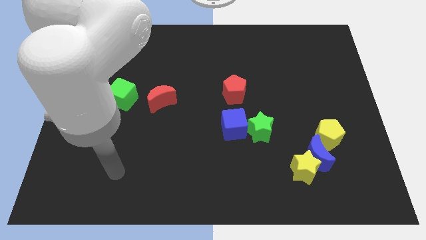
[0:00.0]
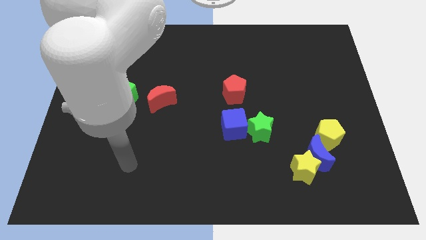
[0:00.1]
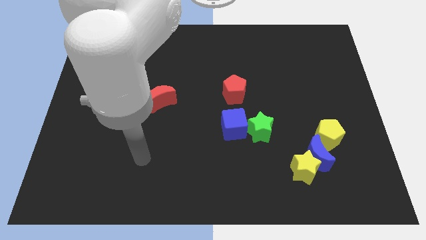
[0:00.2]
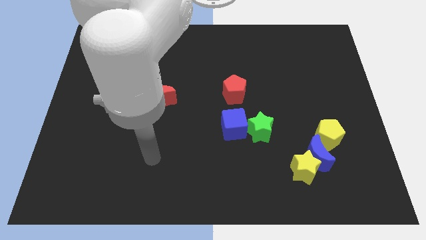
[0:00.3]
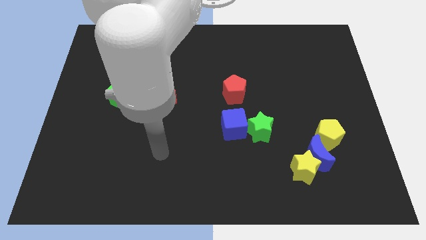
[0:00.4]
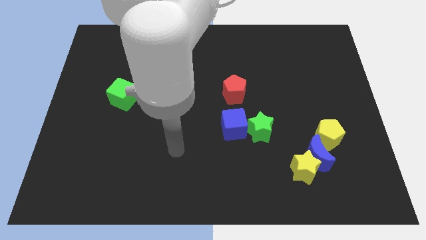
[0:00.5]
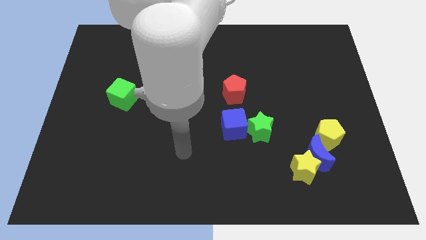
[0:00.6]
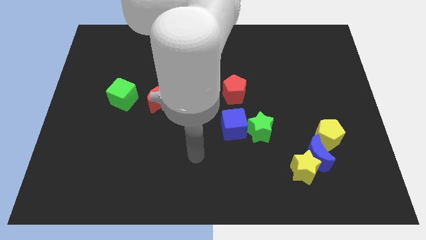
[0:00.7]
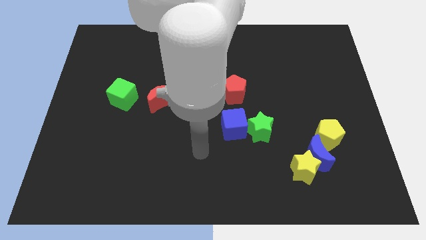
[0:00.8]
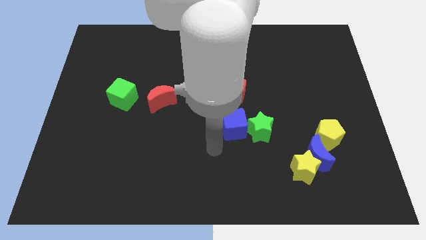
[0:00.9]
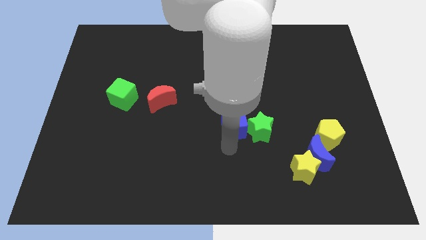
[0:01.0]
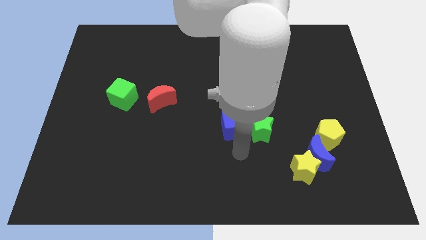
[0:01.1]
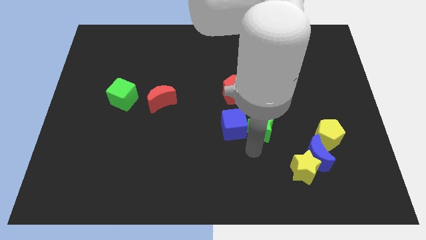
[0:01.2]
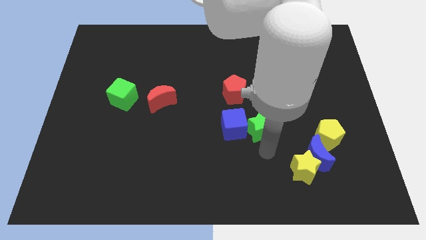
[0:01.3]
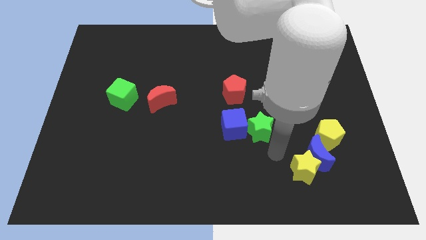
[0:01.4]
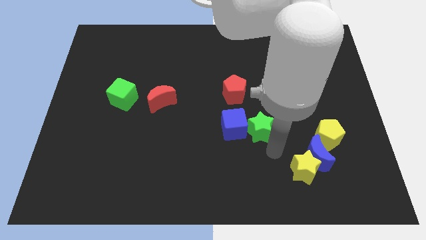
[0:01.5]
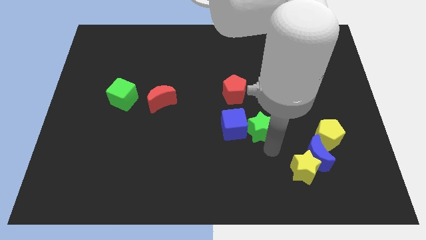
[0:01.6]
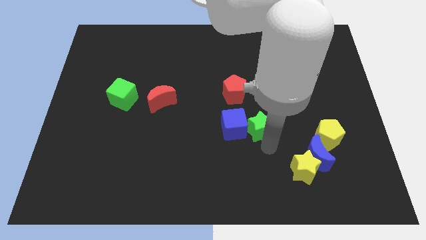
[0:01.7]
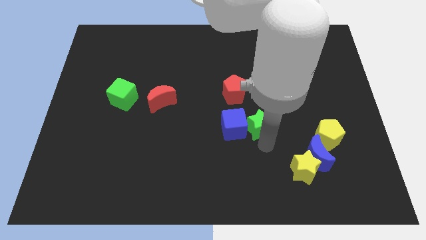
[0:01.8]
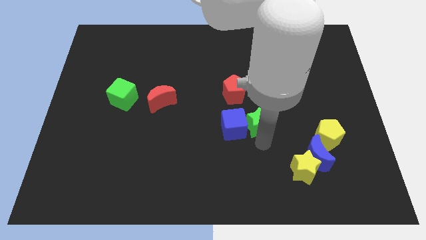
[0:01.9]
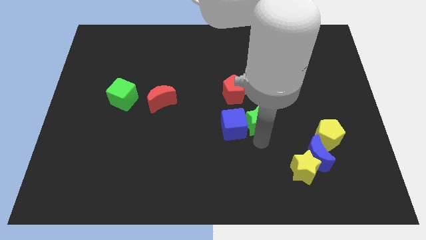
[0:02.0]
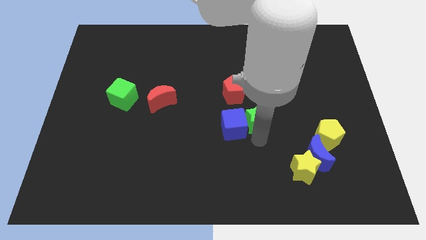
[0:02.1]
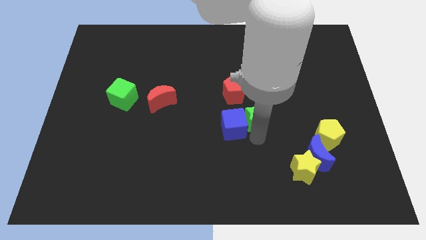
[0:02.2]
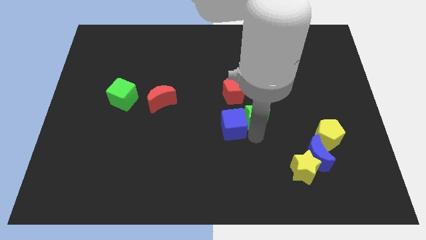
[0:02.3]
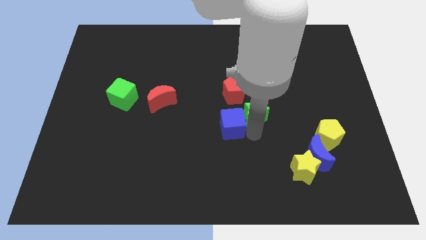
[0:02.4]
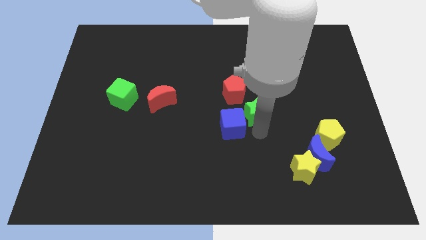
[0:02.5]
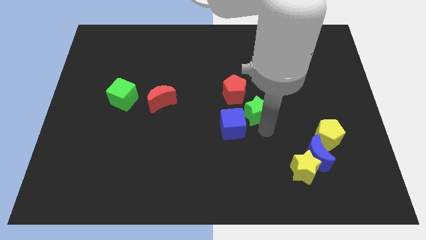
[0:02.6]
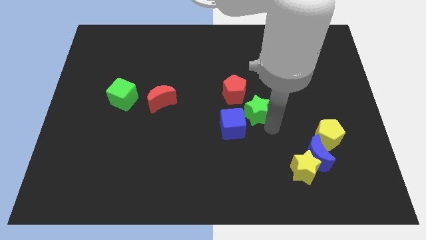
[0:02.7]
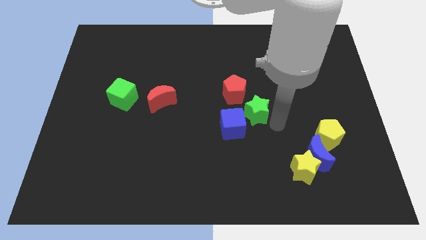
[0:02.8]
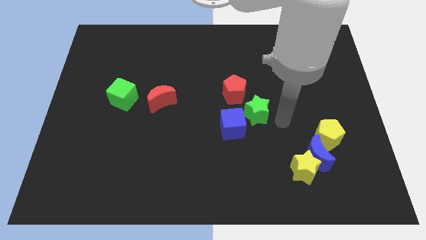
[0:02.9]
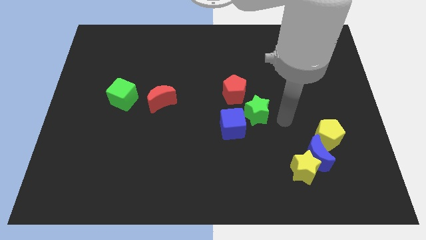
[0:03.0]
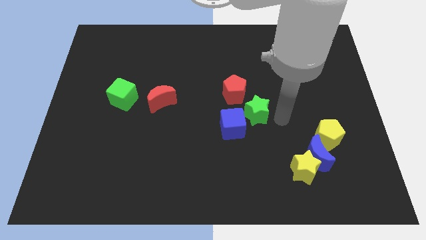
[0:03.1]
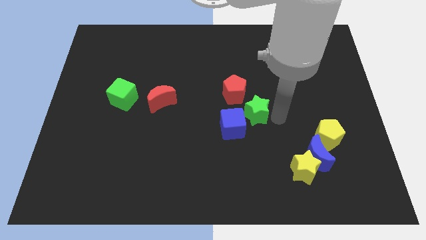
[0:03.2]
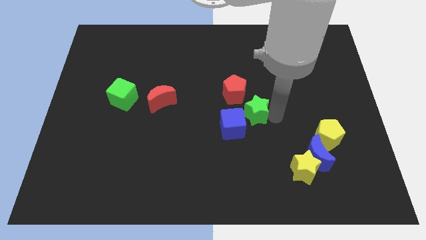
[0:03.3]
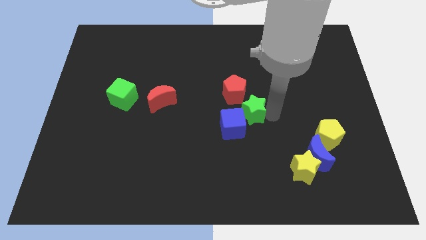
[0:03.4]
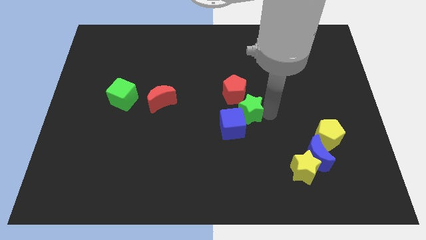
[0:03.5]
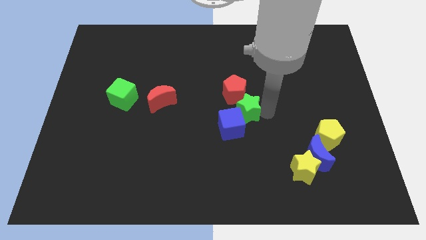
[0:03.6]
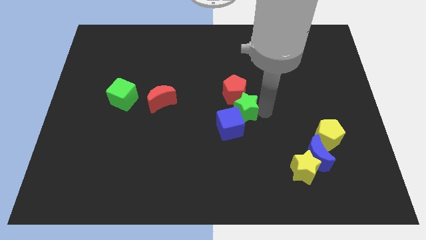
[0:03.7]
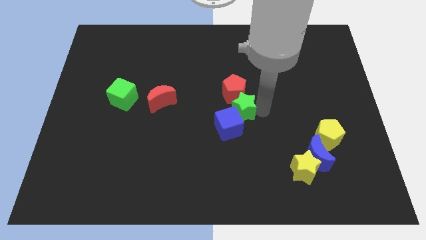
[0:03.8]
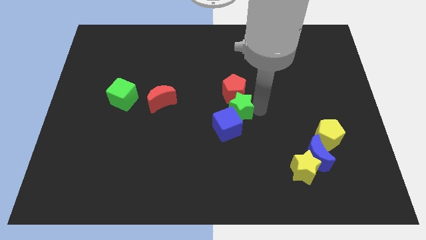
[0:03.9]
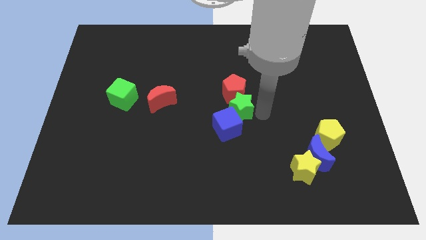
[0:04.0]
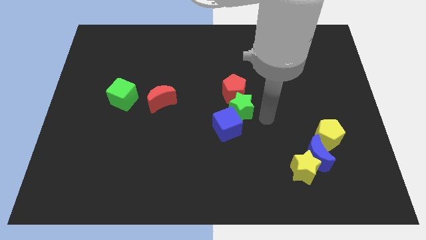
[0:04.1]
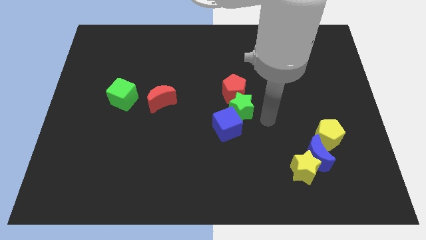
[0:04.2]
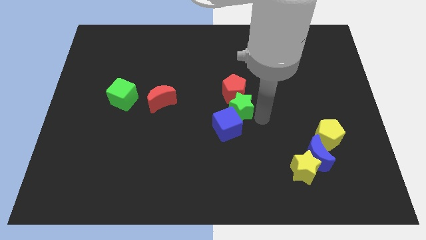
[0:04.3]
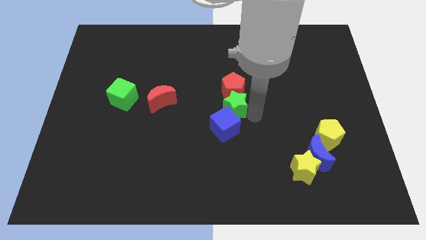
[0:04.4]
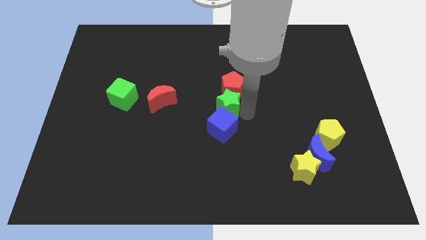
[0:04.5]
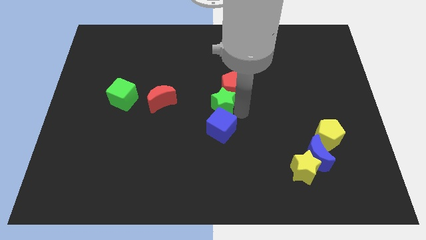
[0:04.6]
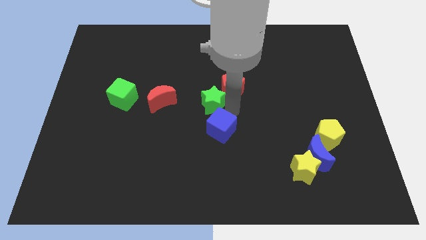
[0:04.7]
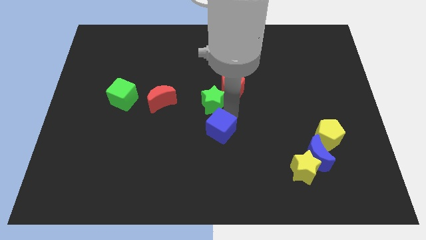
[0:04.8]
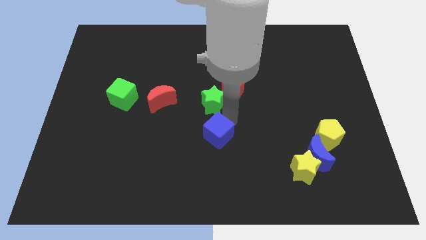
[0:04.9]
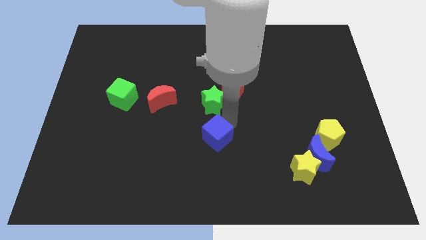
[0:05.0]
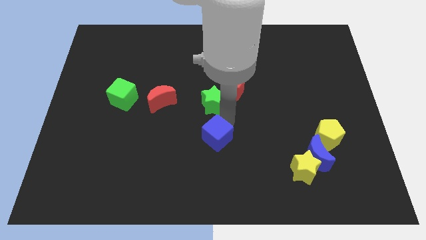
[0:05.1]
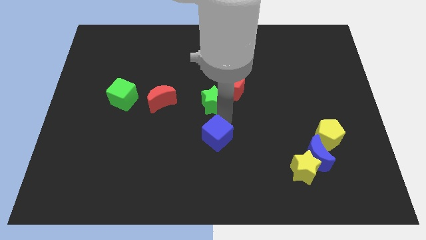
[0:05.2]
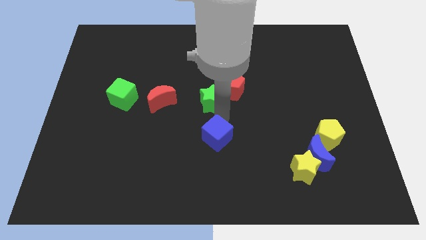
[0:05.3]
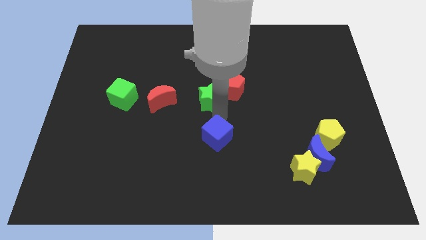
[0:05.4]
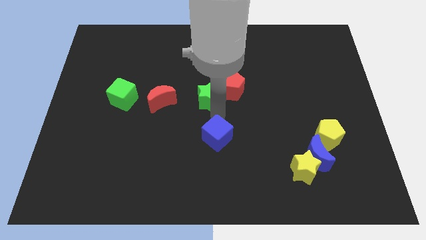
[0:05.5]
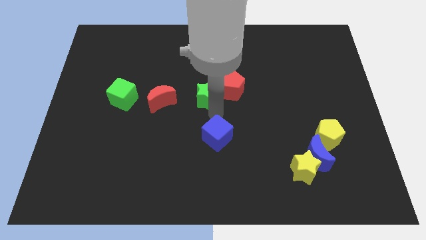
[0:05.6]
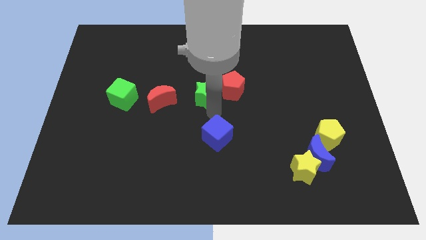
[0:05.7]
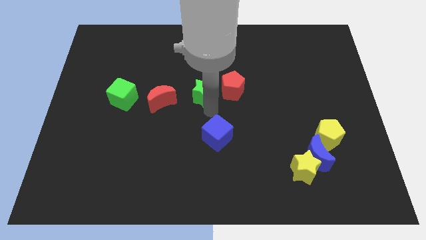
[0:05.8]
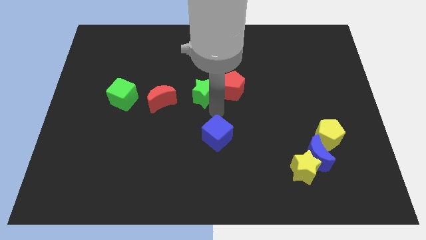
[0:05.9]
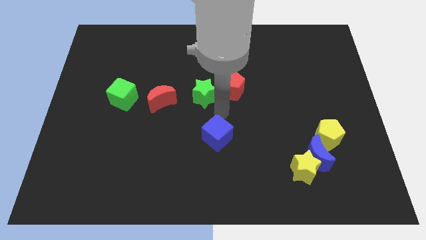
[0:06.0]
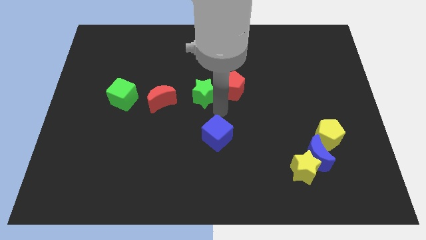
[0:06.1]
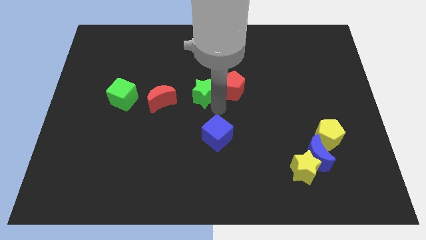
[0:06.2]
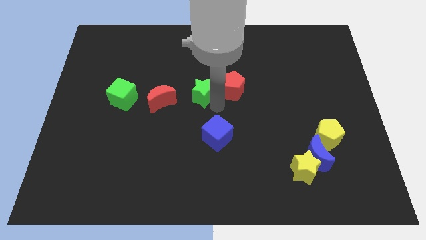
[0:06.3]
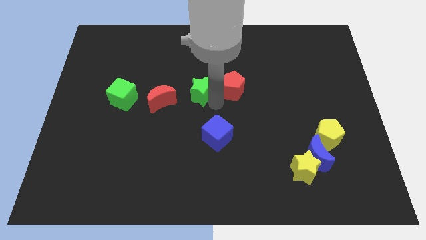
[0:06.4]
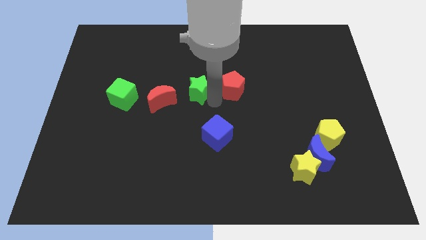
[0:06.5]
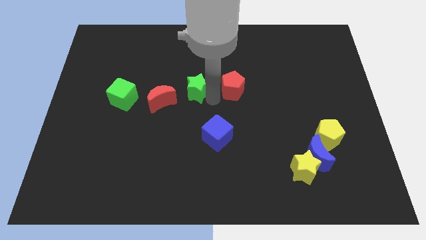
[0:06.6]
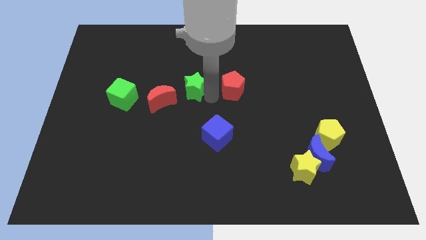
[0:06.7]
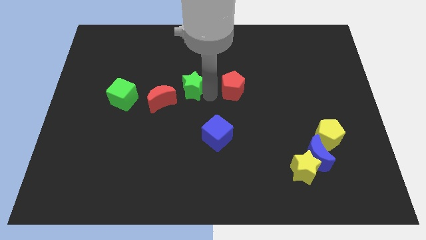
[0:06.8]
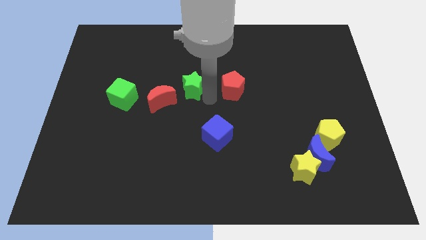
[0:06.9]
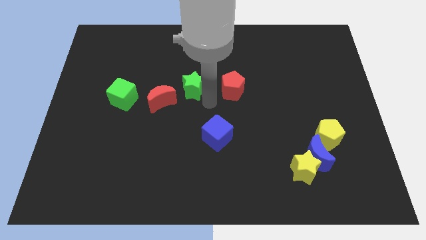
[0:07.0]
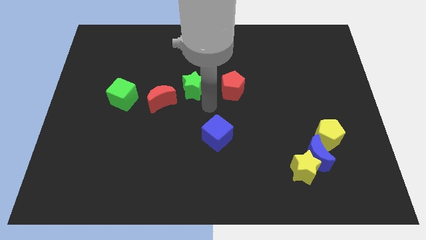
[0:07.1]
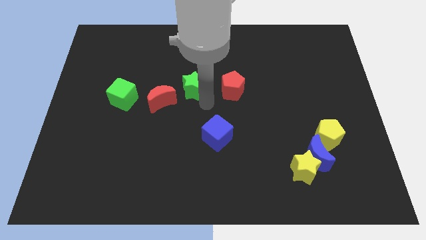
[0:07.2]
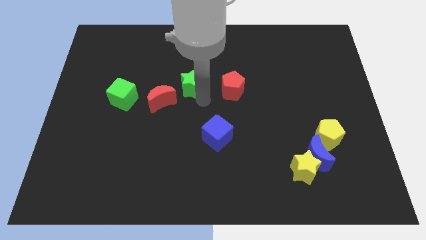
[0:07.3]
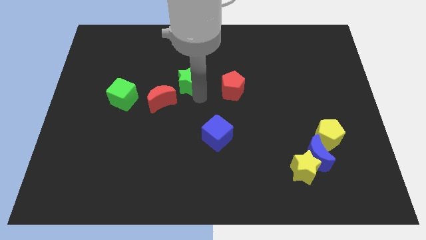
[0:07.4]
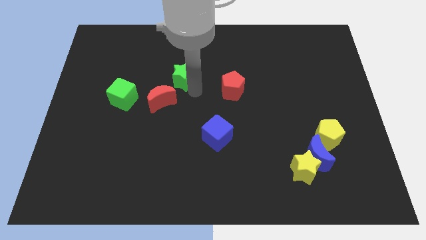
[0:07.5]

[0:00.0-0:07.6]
push the green star above the red moon
